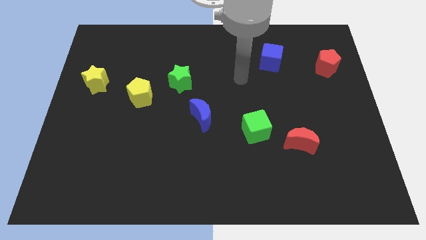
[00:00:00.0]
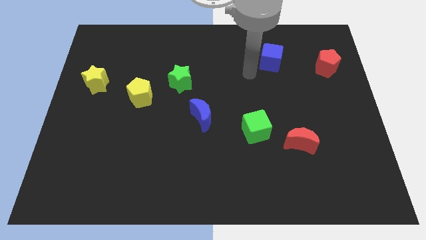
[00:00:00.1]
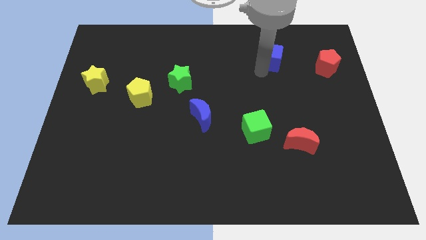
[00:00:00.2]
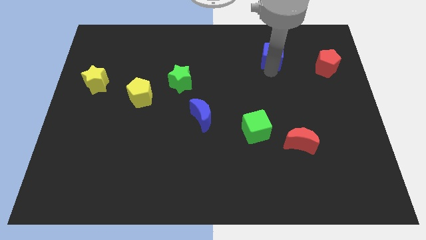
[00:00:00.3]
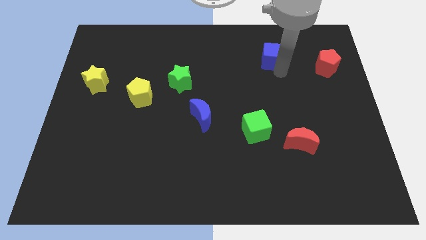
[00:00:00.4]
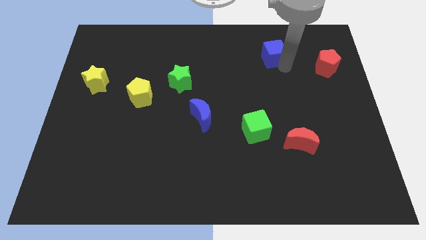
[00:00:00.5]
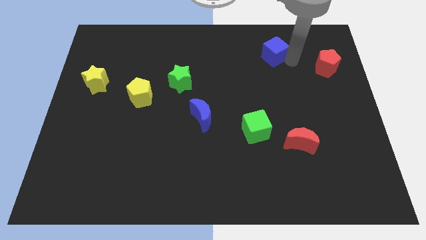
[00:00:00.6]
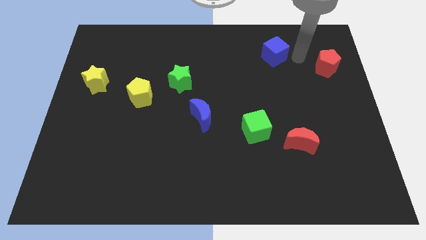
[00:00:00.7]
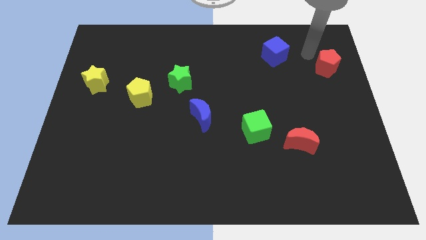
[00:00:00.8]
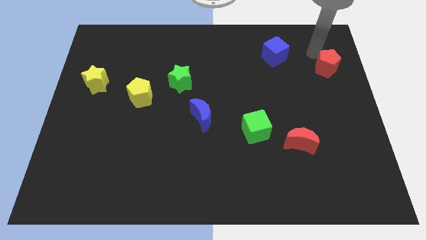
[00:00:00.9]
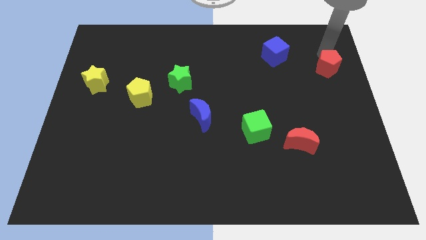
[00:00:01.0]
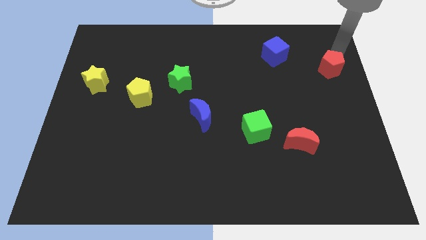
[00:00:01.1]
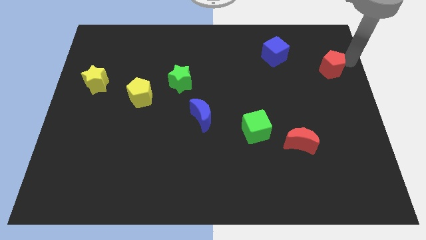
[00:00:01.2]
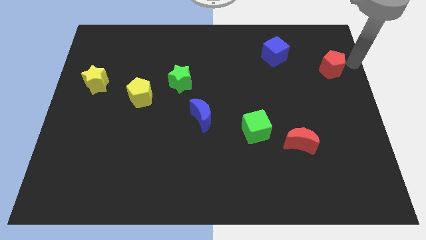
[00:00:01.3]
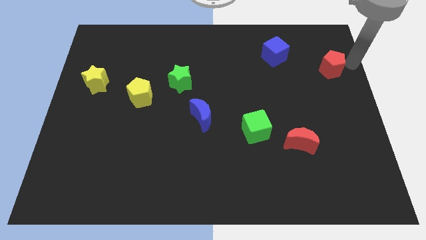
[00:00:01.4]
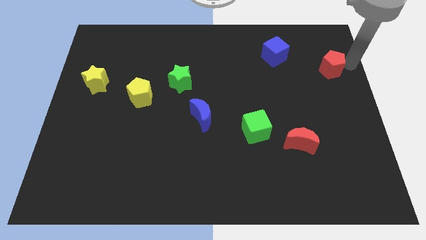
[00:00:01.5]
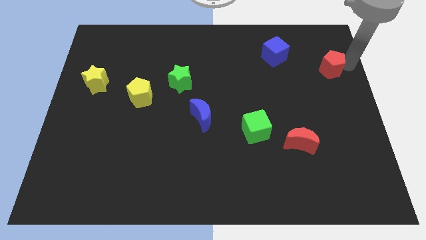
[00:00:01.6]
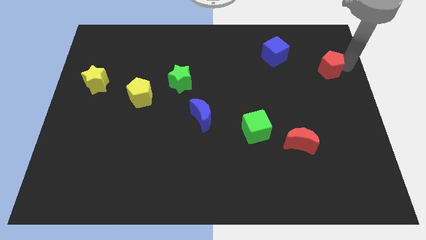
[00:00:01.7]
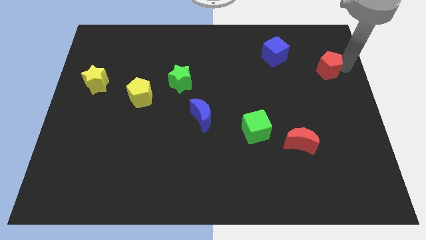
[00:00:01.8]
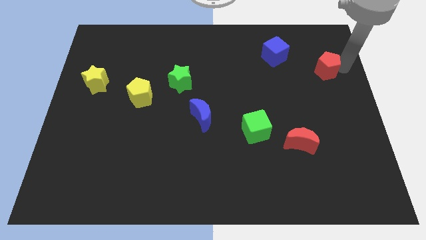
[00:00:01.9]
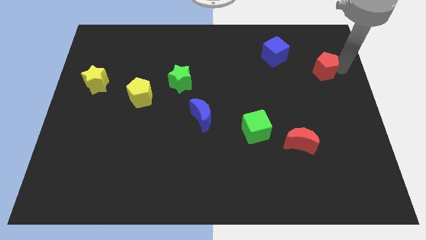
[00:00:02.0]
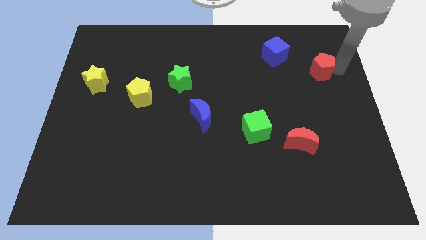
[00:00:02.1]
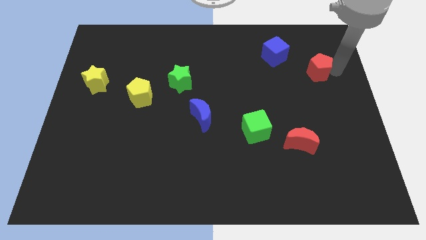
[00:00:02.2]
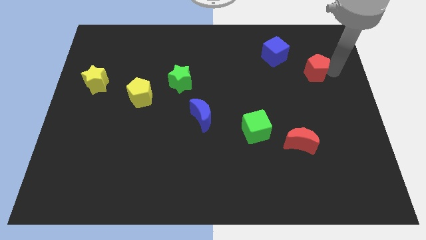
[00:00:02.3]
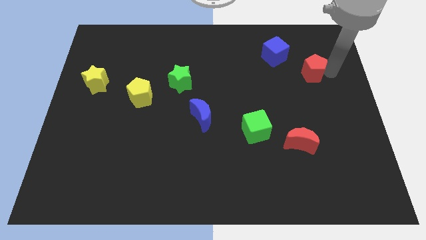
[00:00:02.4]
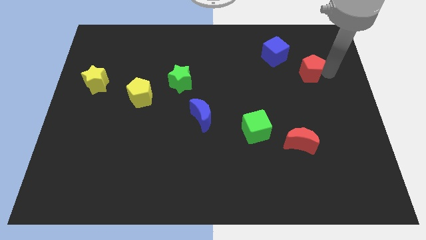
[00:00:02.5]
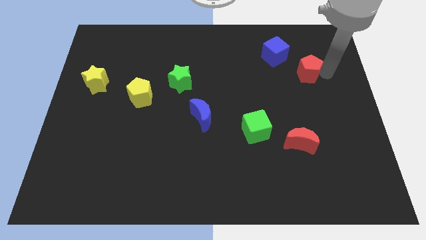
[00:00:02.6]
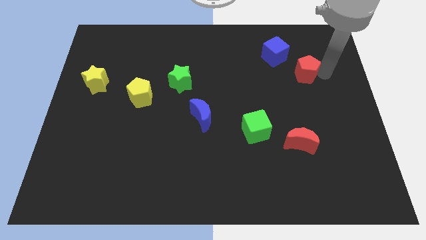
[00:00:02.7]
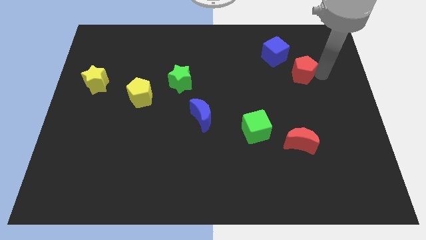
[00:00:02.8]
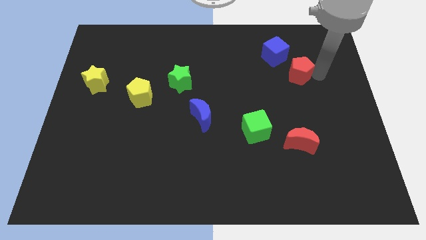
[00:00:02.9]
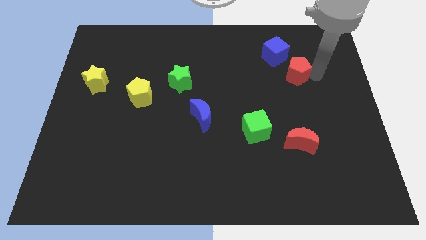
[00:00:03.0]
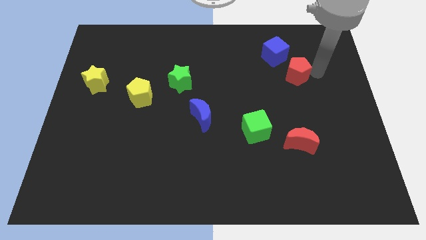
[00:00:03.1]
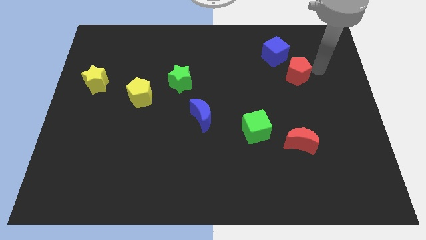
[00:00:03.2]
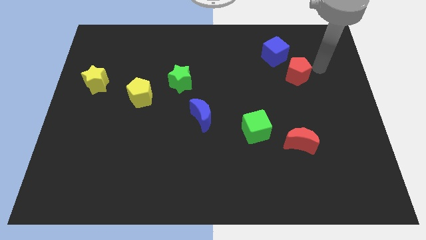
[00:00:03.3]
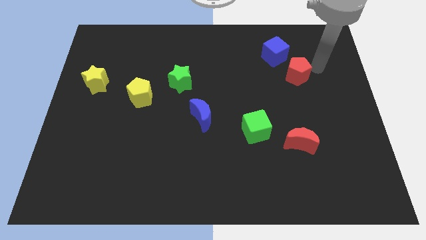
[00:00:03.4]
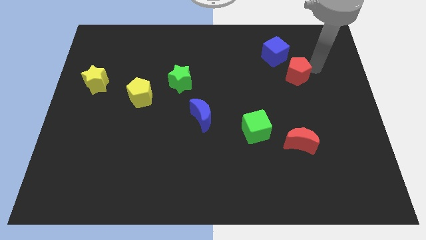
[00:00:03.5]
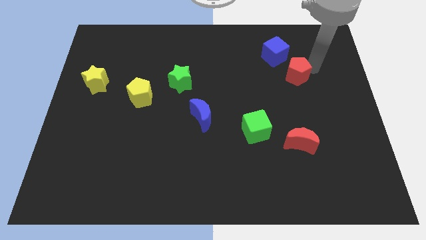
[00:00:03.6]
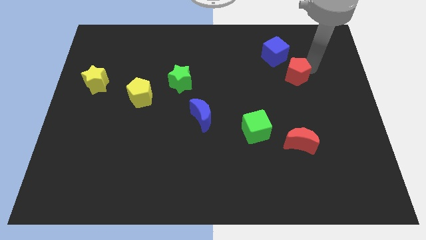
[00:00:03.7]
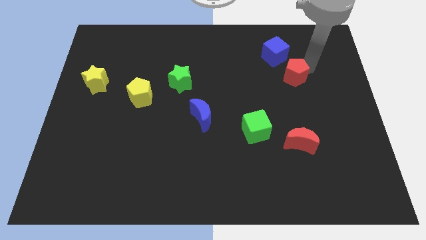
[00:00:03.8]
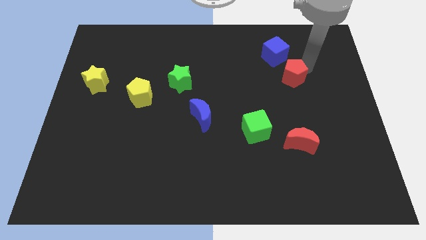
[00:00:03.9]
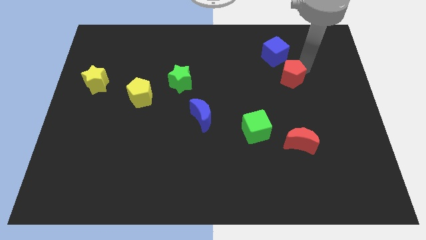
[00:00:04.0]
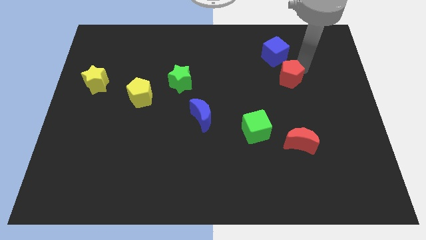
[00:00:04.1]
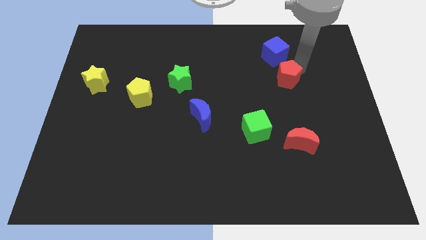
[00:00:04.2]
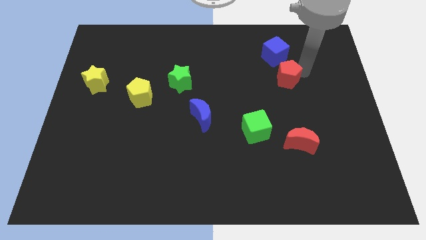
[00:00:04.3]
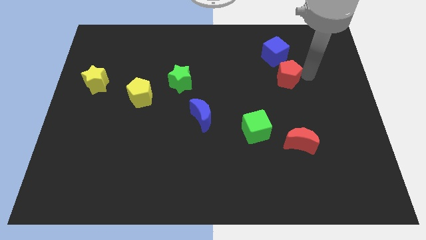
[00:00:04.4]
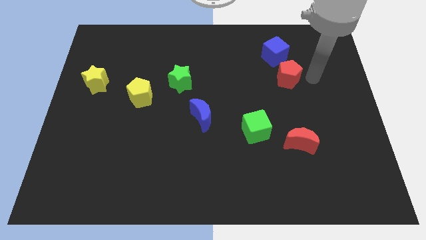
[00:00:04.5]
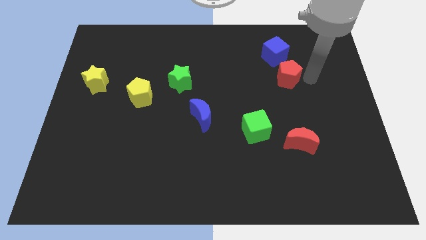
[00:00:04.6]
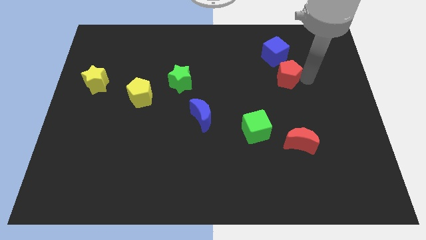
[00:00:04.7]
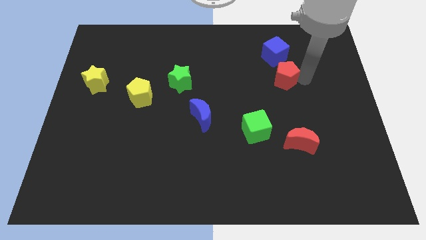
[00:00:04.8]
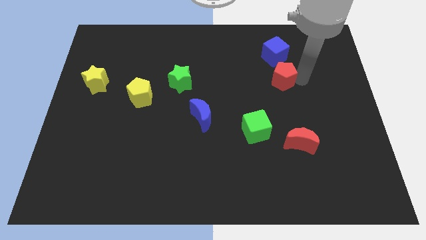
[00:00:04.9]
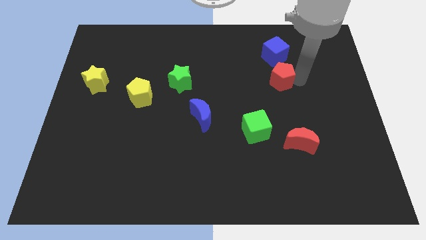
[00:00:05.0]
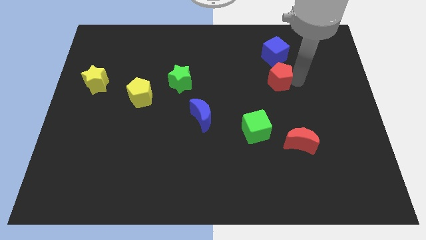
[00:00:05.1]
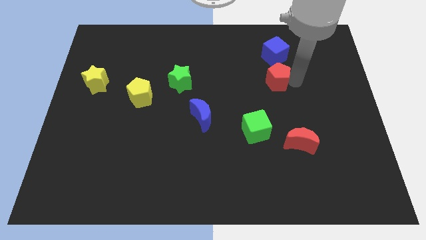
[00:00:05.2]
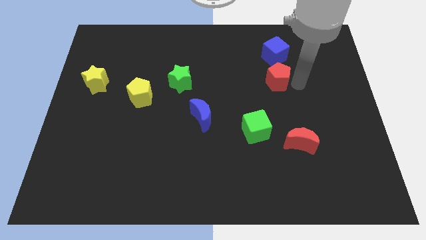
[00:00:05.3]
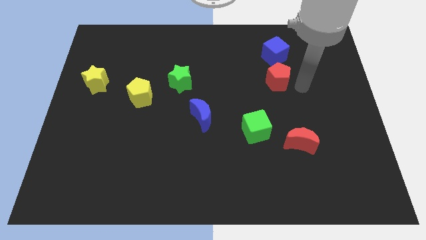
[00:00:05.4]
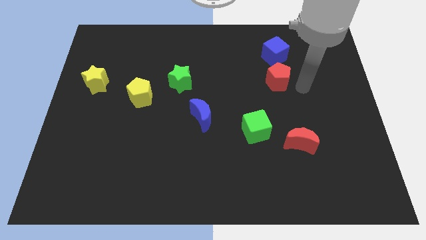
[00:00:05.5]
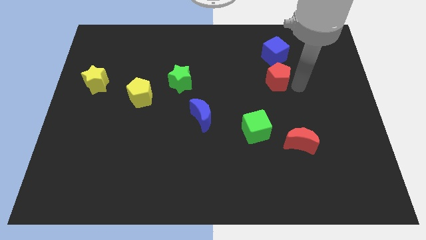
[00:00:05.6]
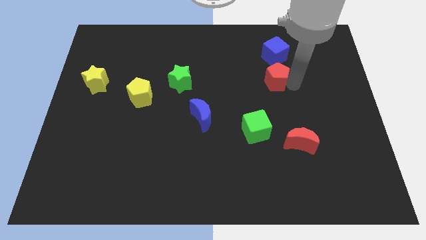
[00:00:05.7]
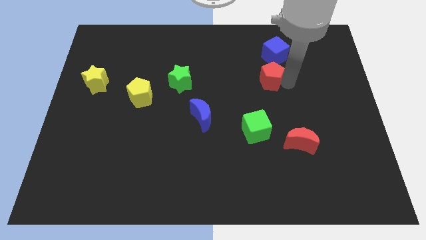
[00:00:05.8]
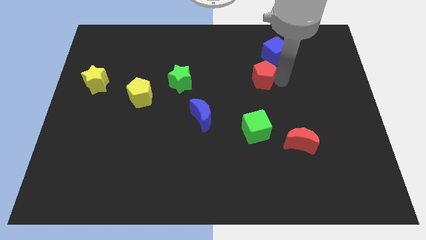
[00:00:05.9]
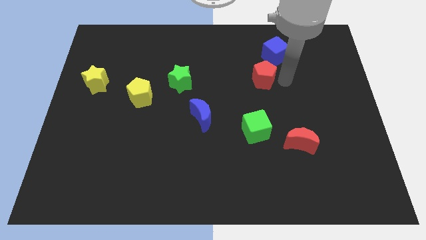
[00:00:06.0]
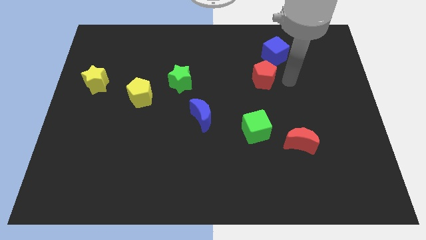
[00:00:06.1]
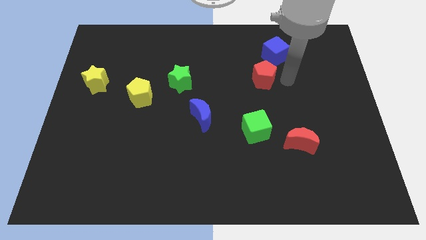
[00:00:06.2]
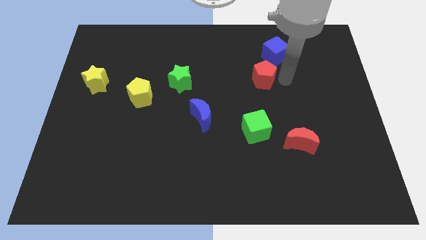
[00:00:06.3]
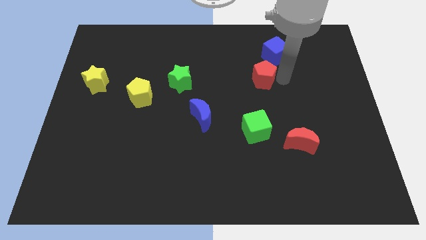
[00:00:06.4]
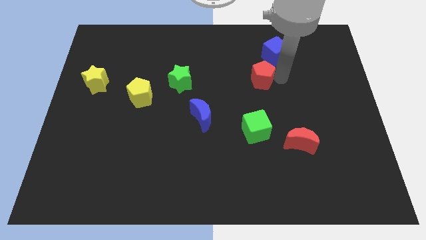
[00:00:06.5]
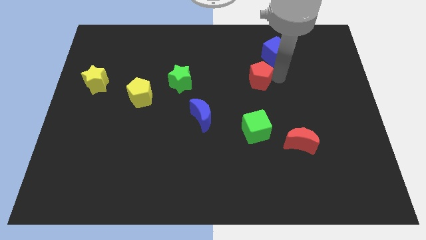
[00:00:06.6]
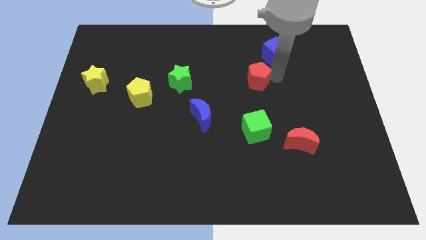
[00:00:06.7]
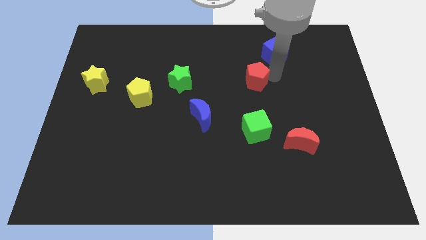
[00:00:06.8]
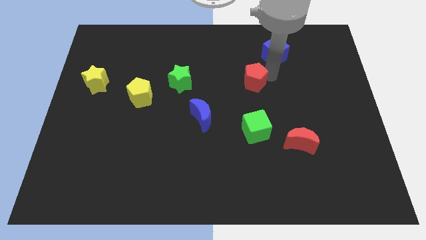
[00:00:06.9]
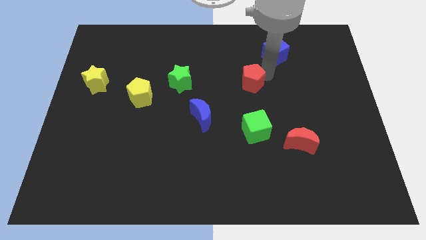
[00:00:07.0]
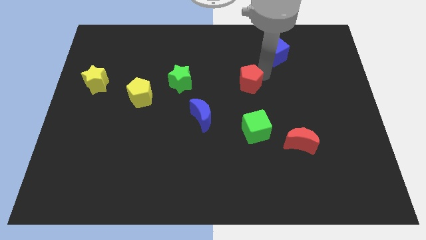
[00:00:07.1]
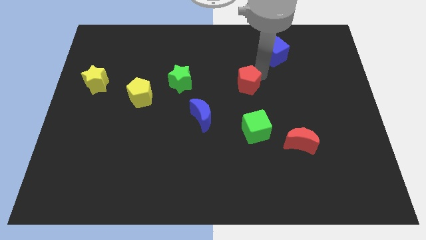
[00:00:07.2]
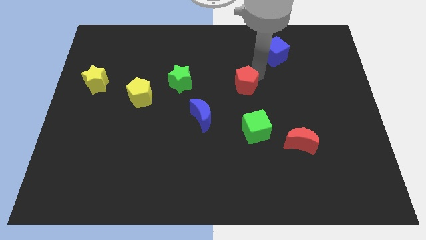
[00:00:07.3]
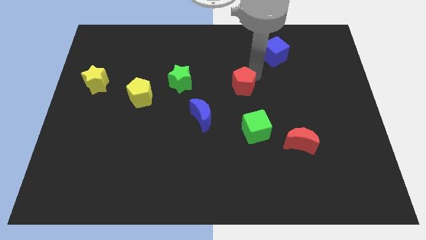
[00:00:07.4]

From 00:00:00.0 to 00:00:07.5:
push the red pentagon to the left
